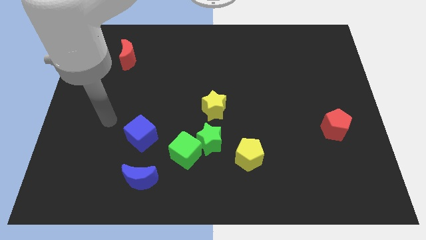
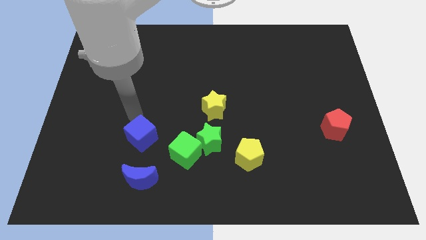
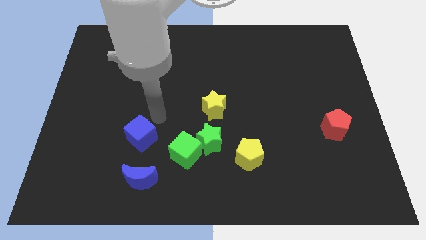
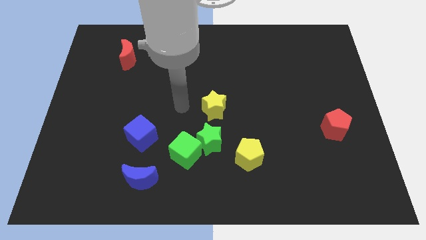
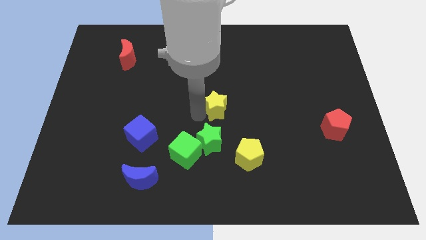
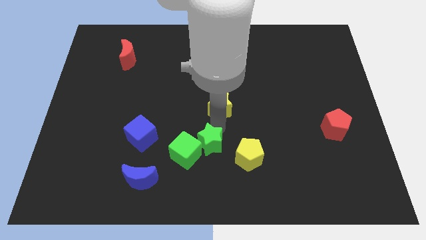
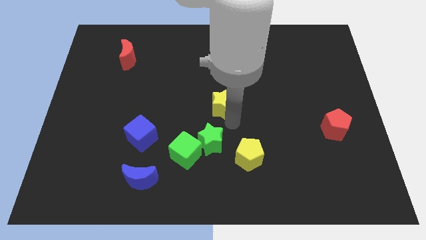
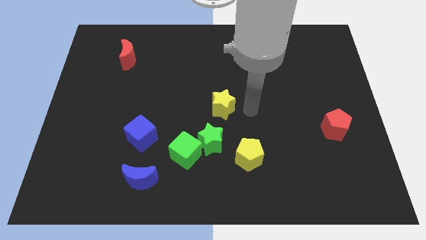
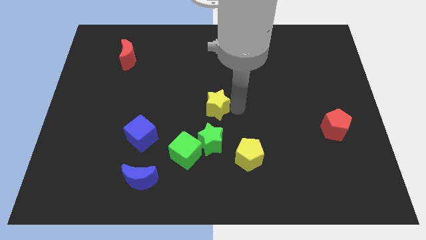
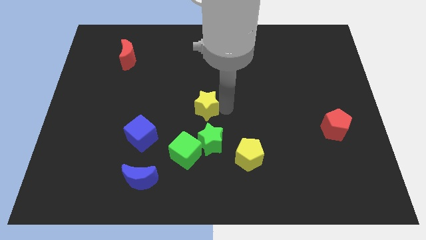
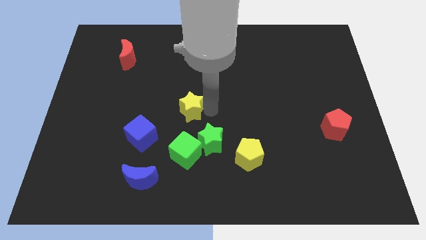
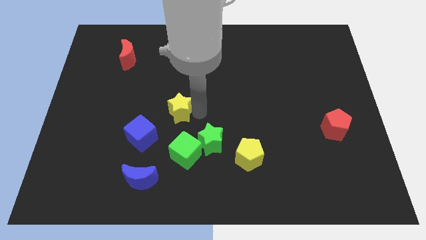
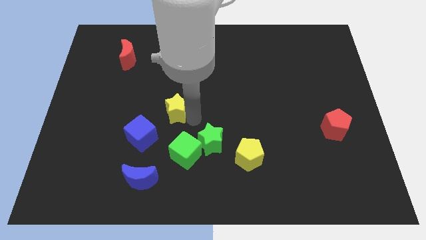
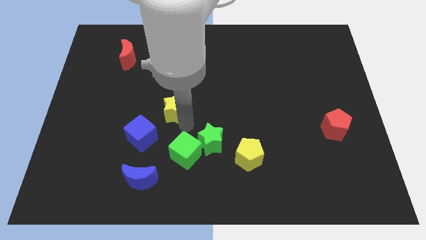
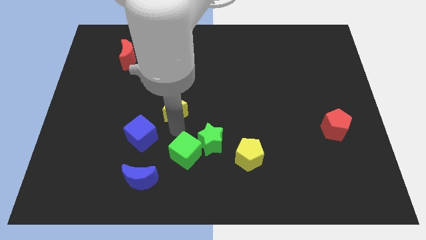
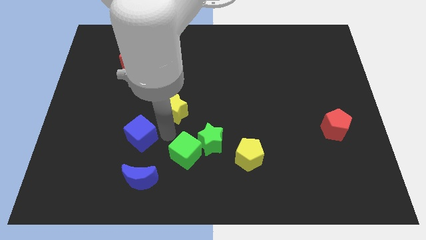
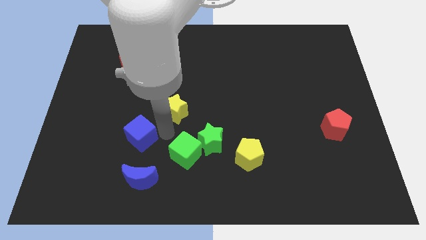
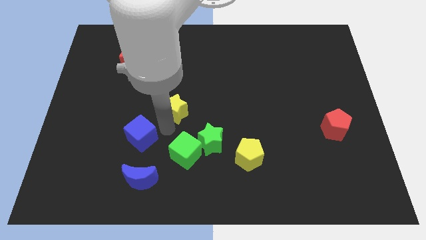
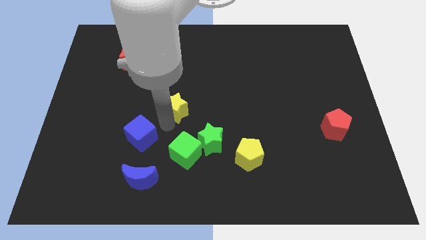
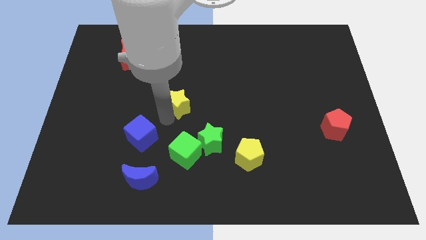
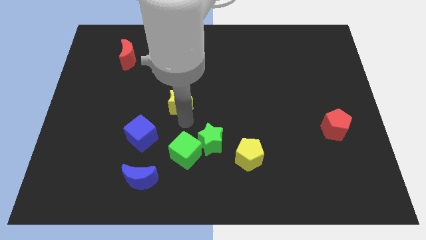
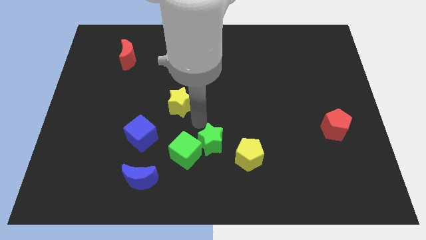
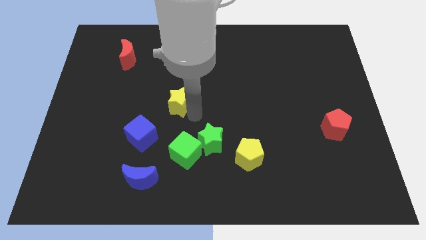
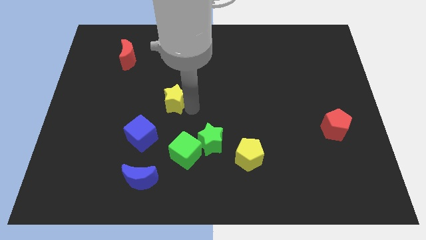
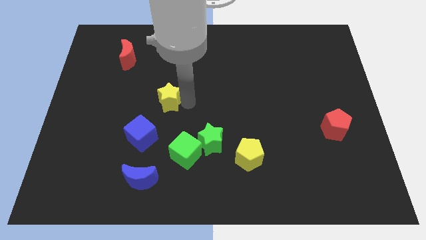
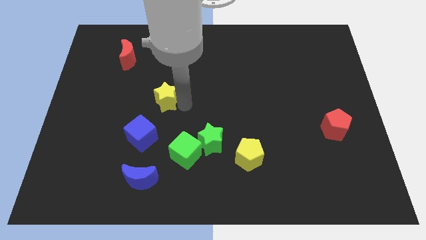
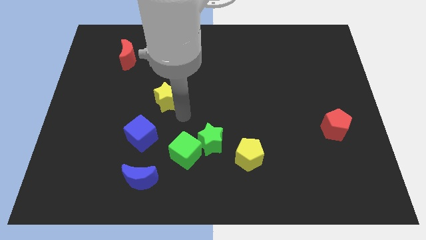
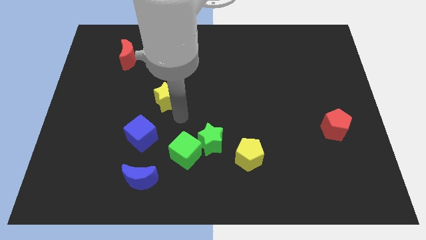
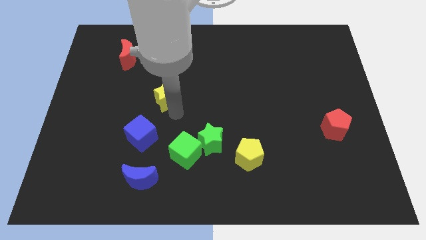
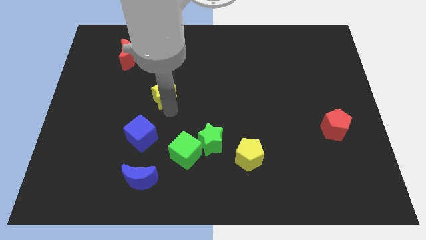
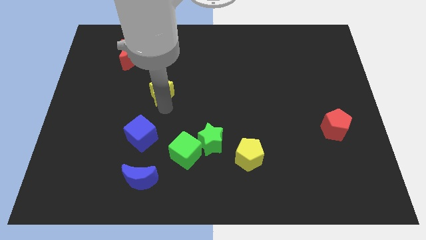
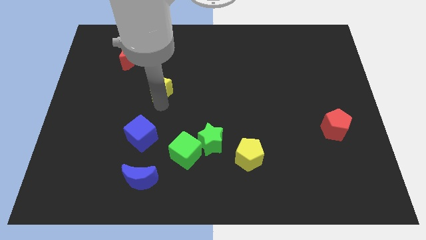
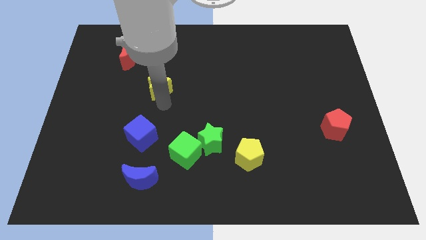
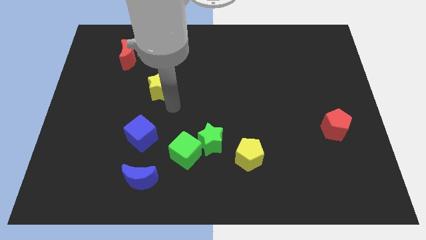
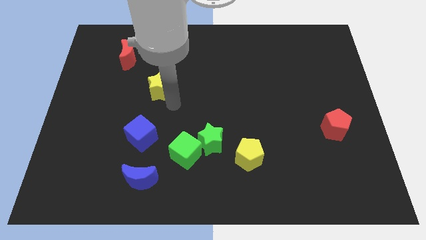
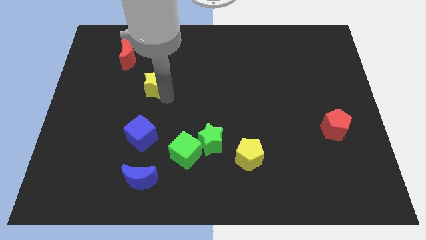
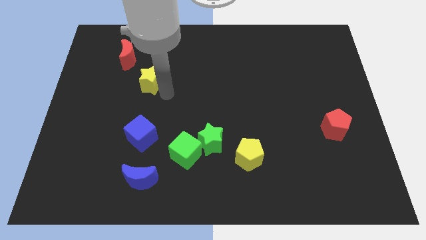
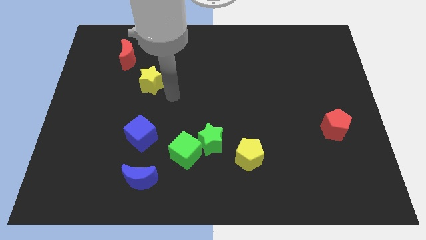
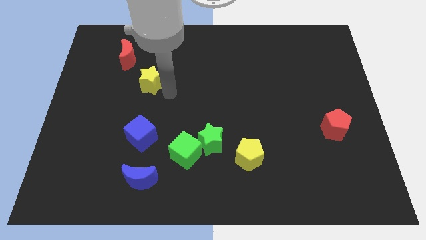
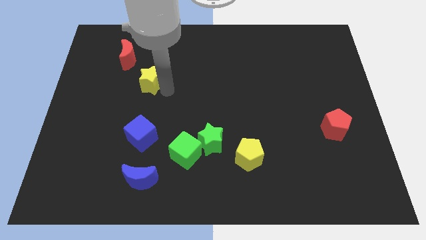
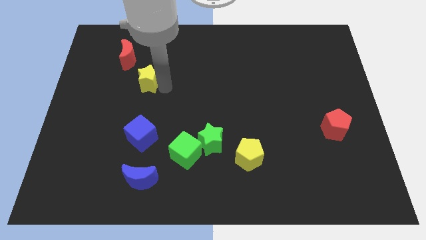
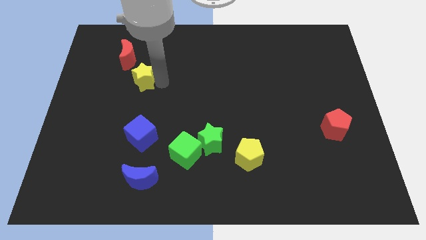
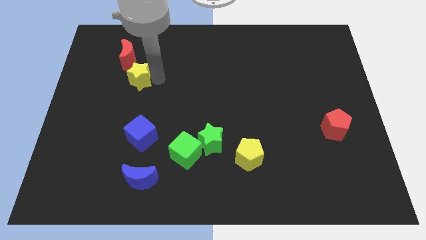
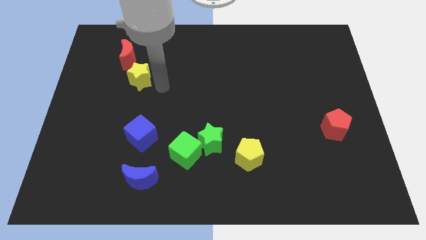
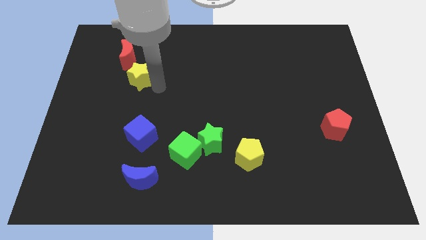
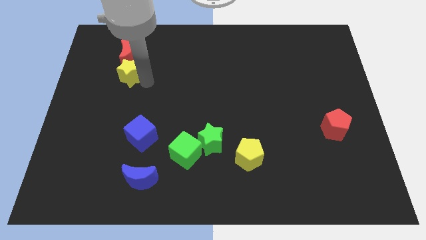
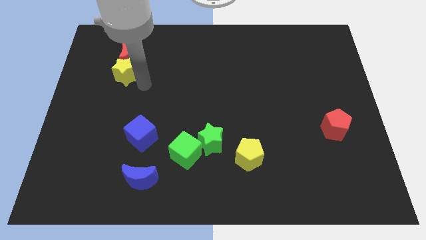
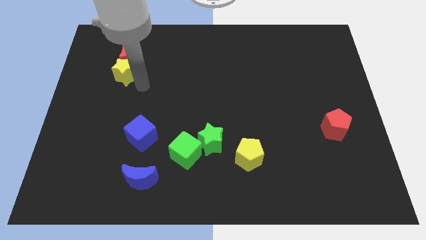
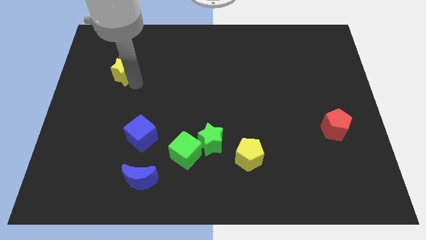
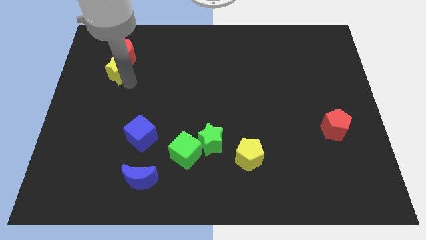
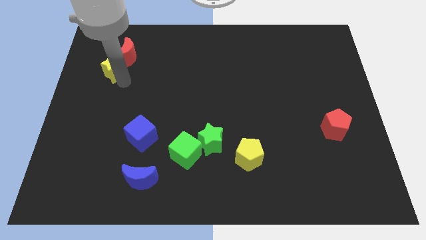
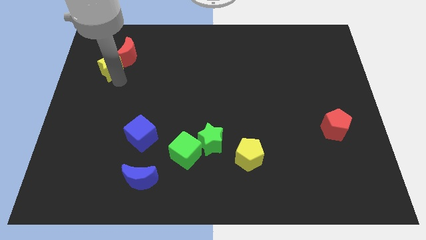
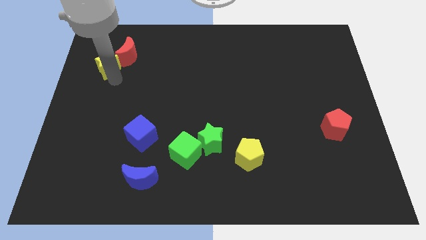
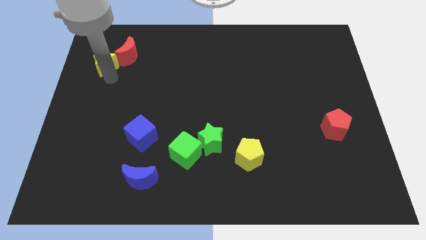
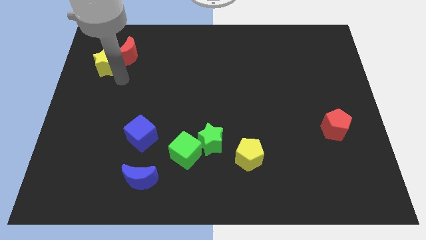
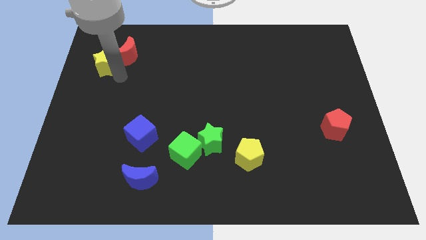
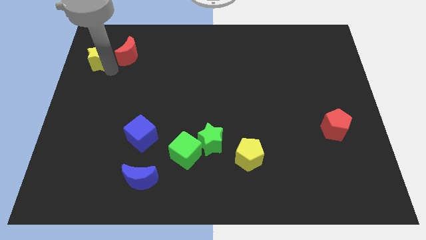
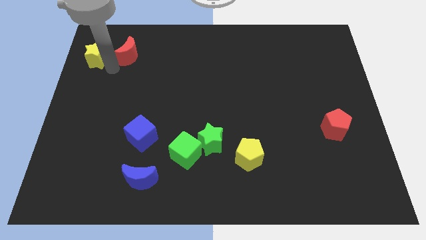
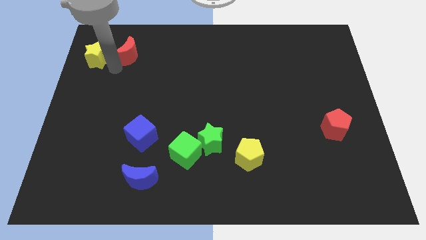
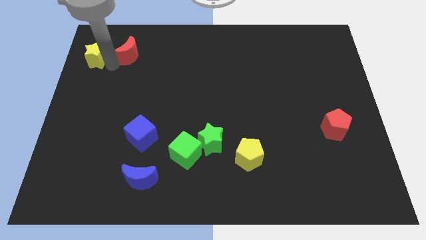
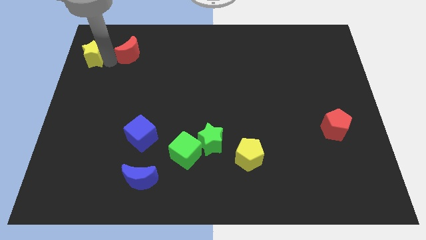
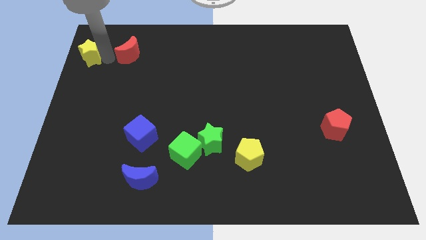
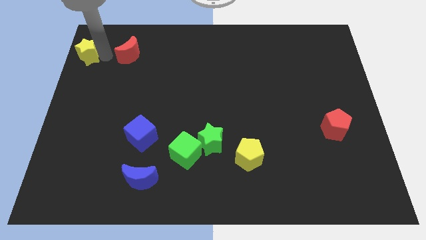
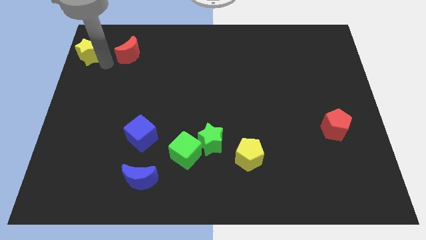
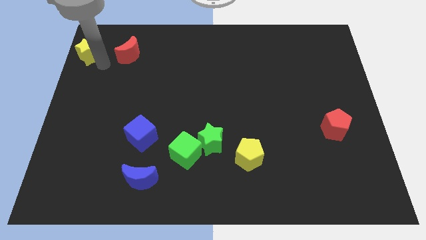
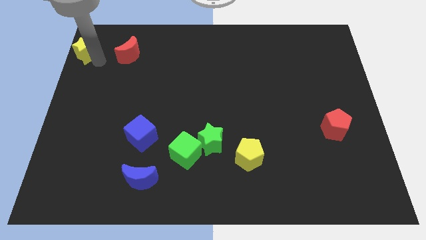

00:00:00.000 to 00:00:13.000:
push the yellow star to the top left

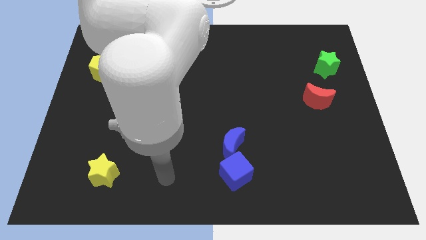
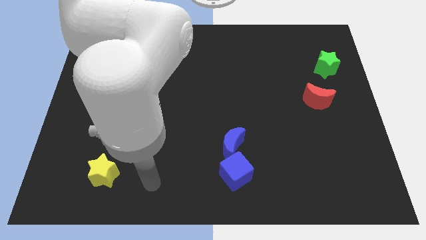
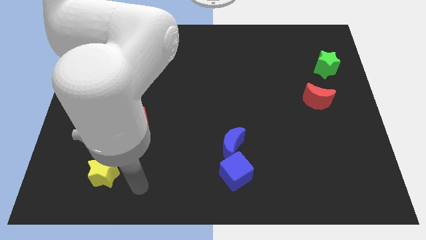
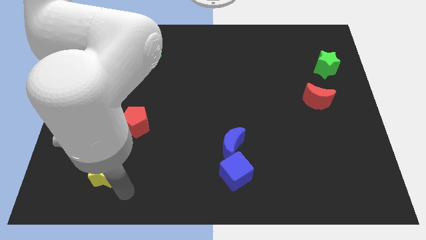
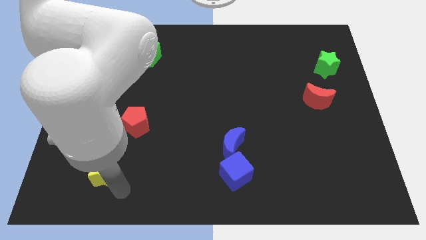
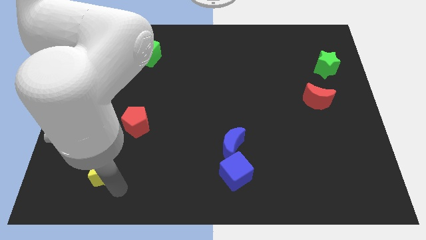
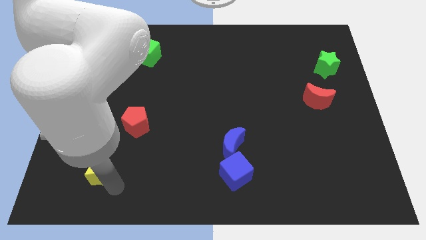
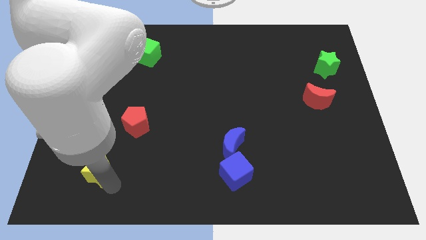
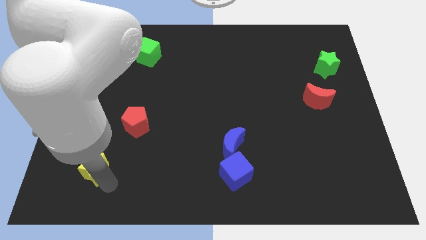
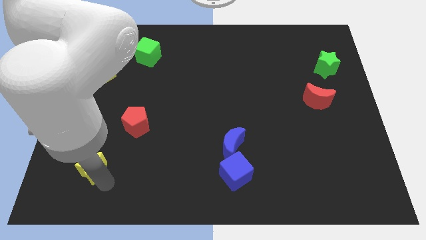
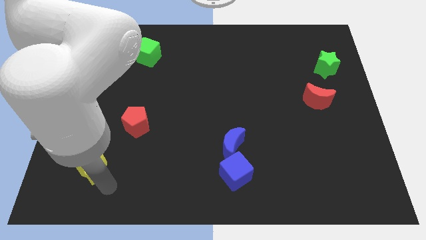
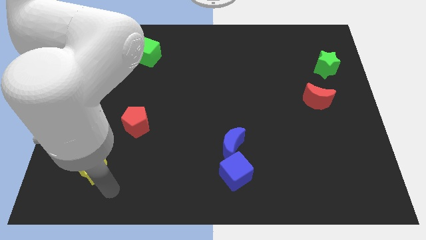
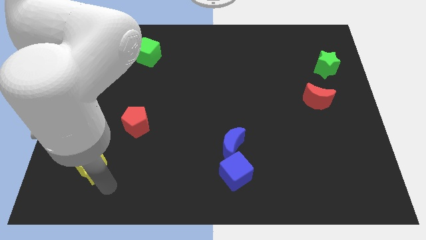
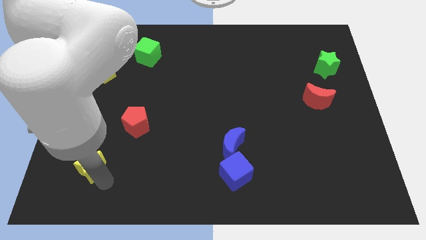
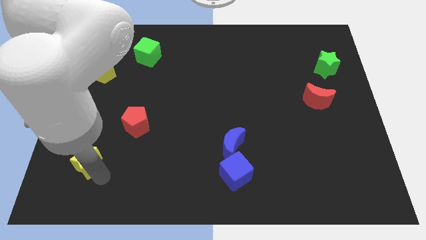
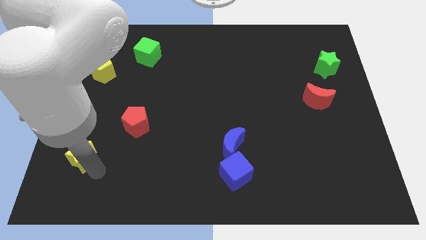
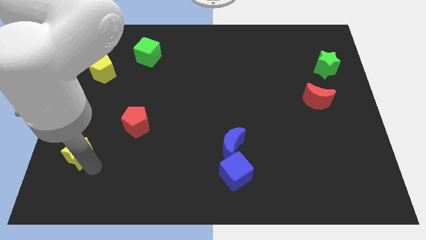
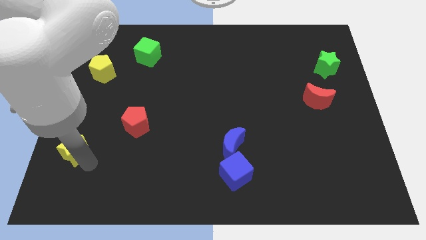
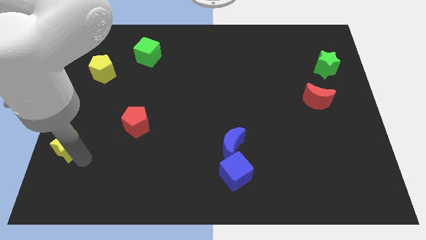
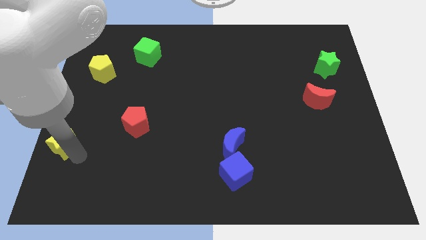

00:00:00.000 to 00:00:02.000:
push the yellow star to the left side
